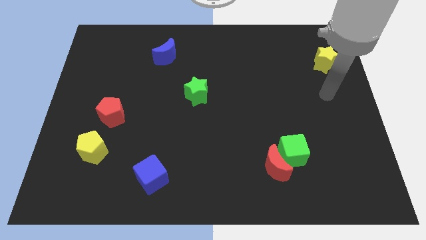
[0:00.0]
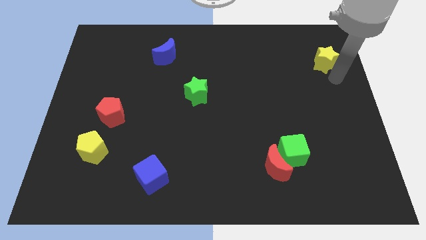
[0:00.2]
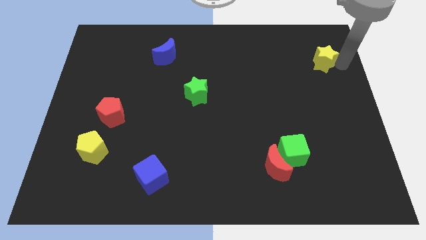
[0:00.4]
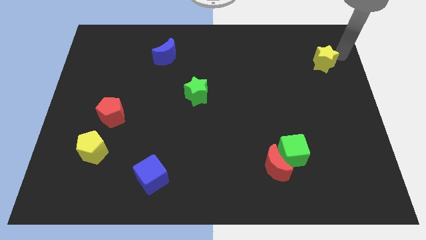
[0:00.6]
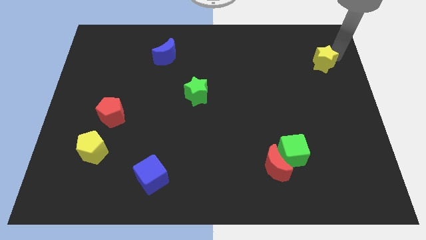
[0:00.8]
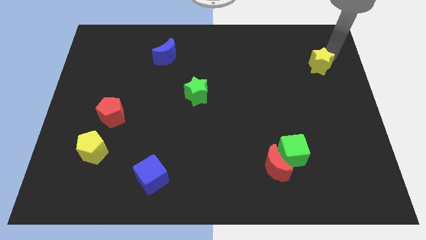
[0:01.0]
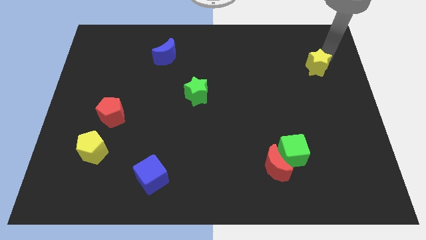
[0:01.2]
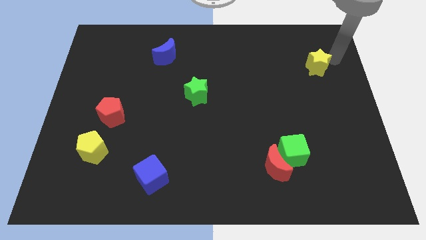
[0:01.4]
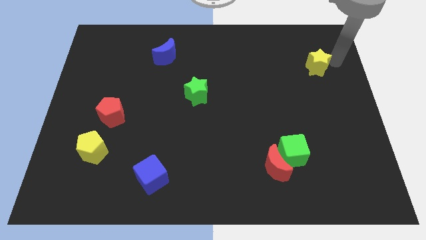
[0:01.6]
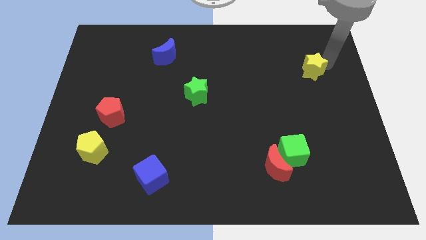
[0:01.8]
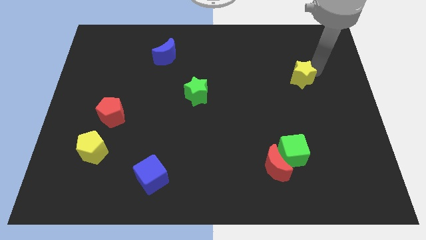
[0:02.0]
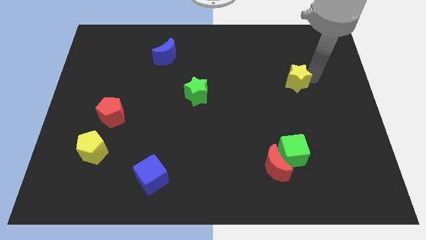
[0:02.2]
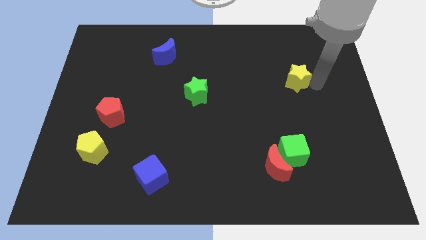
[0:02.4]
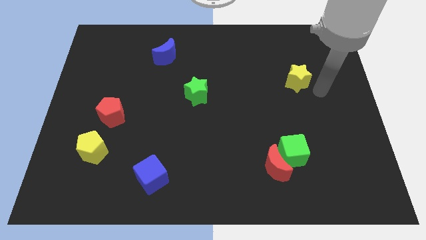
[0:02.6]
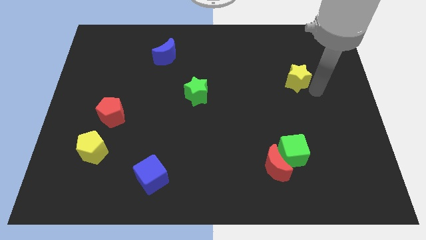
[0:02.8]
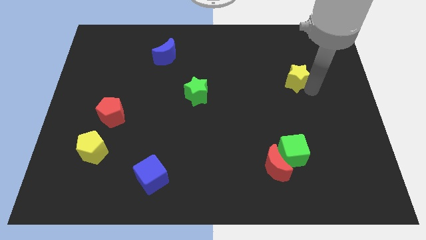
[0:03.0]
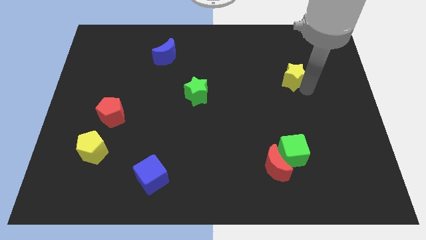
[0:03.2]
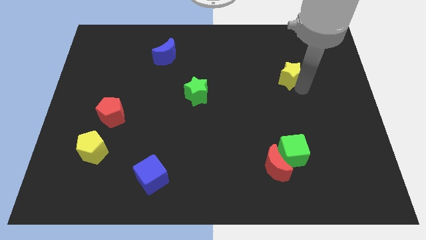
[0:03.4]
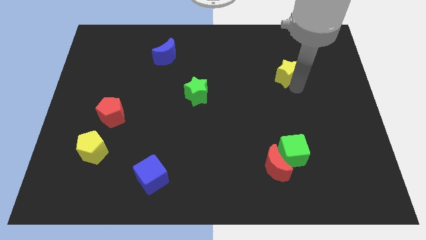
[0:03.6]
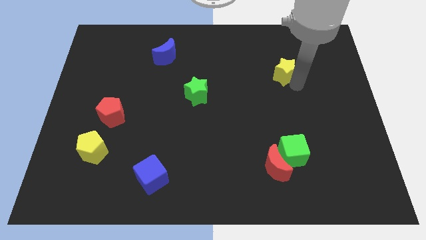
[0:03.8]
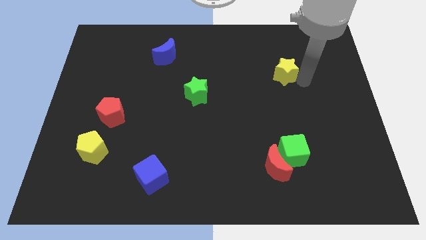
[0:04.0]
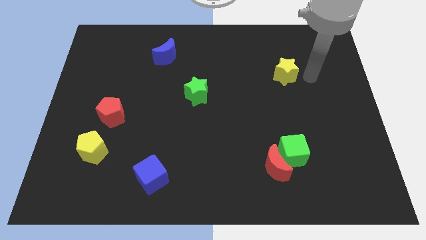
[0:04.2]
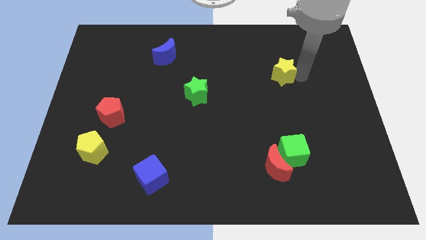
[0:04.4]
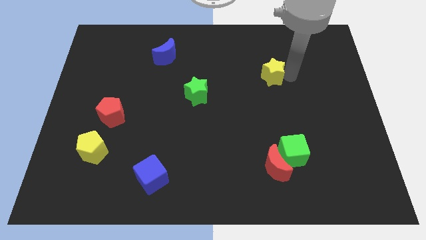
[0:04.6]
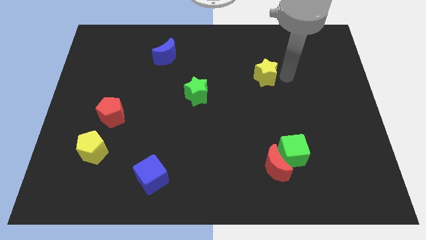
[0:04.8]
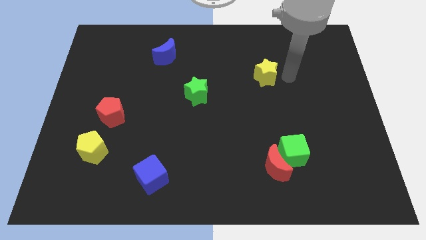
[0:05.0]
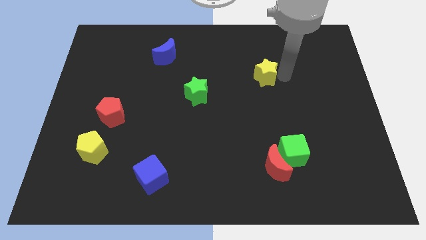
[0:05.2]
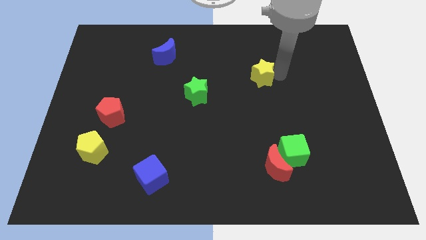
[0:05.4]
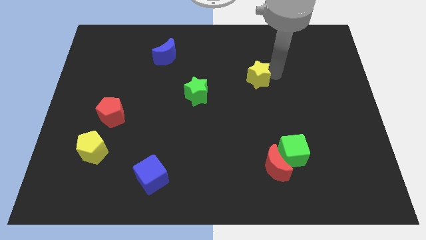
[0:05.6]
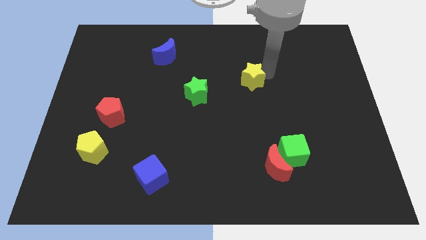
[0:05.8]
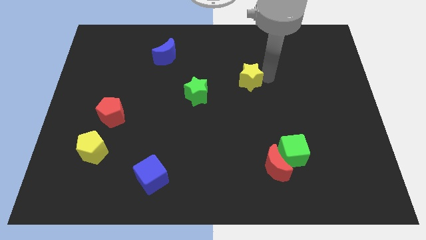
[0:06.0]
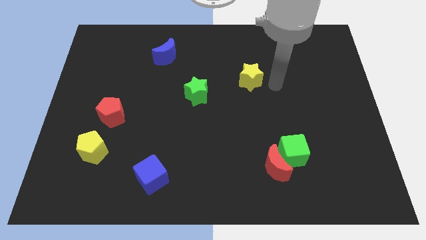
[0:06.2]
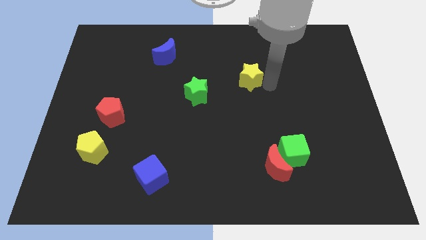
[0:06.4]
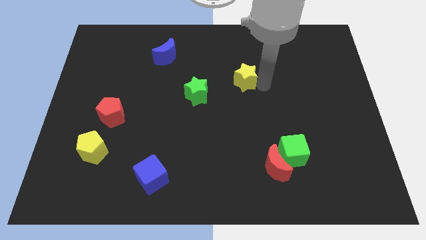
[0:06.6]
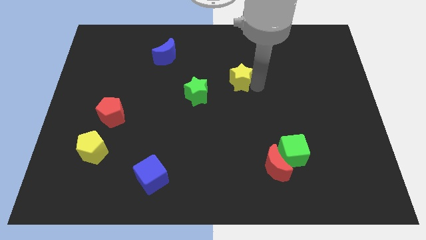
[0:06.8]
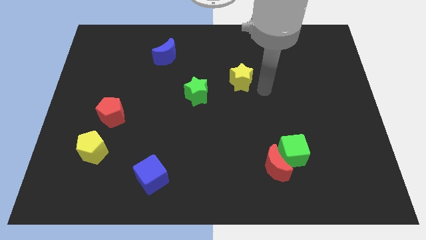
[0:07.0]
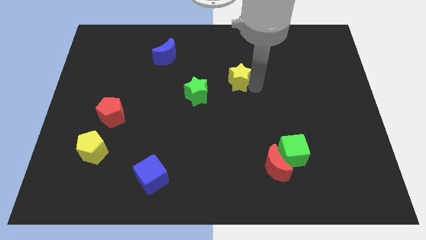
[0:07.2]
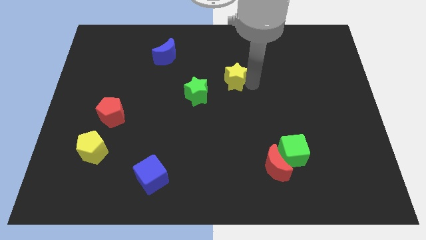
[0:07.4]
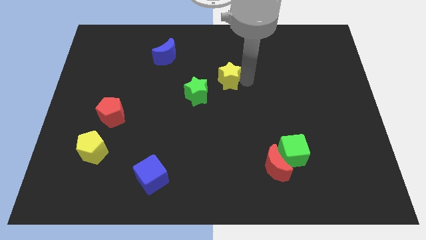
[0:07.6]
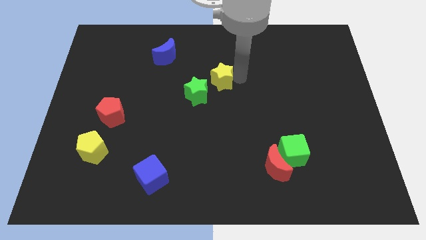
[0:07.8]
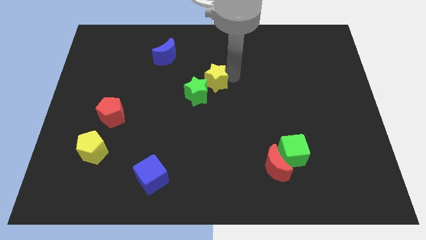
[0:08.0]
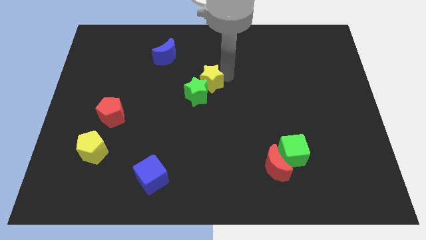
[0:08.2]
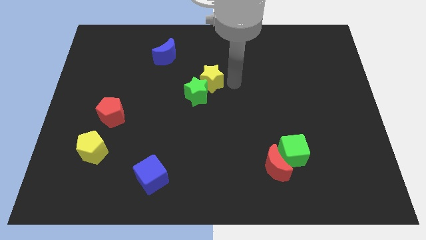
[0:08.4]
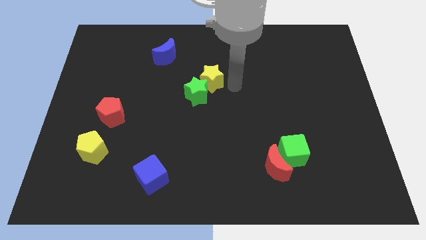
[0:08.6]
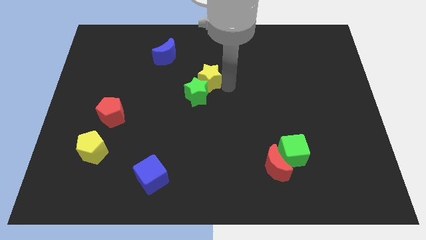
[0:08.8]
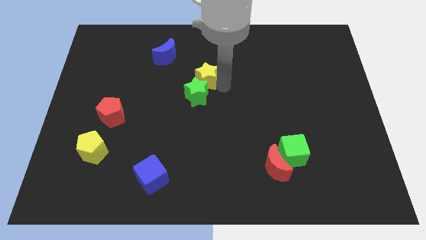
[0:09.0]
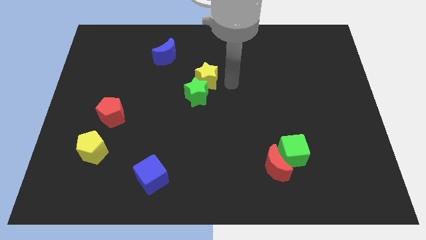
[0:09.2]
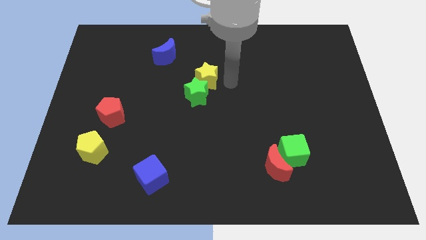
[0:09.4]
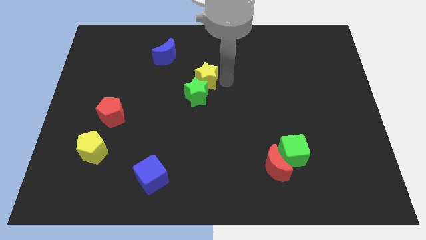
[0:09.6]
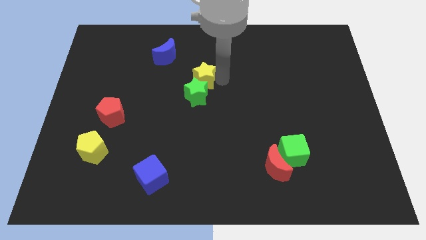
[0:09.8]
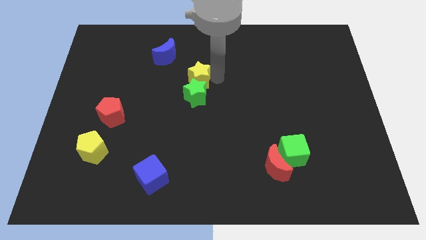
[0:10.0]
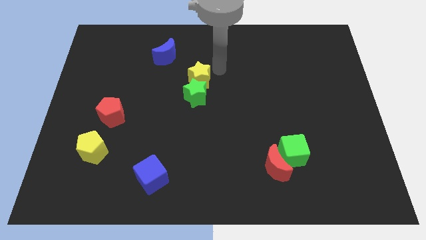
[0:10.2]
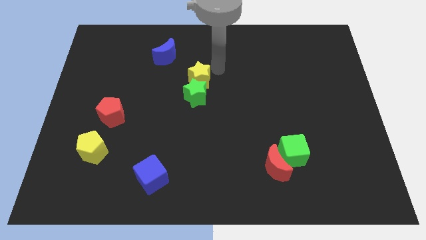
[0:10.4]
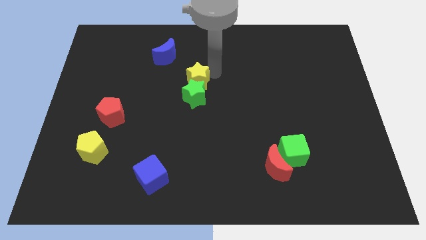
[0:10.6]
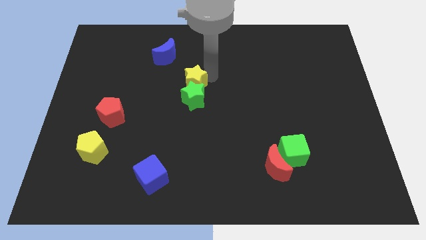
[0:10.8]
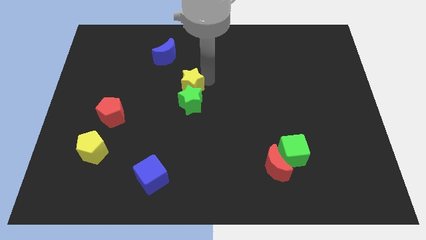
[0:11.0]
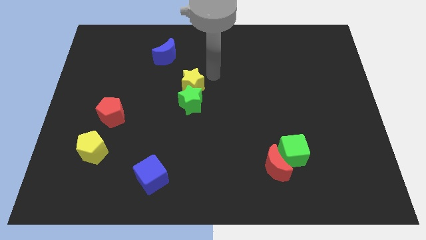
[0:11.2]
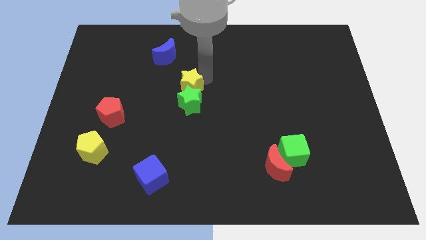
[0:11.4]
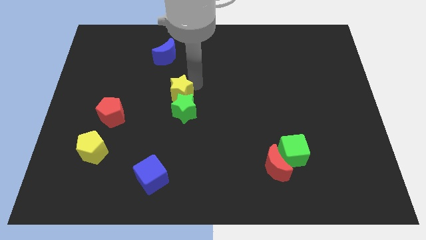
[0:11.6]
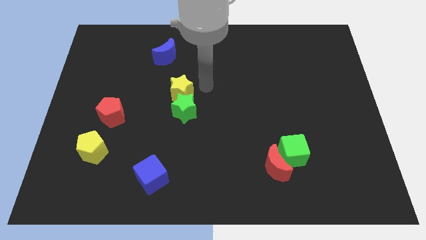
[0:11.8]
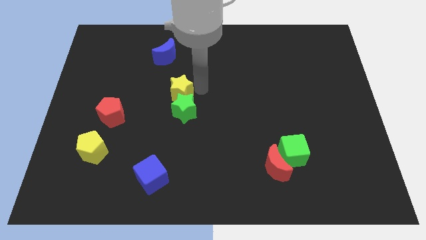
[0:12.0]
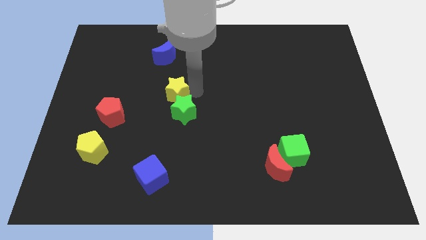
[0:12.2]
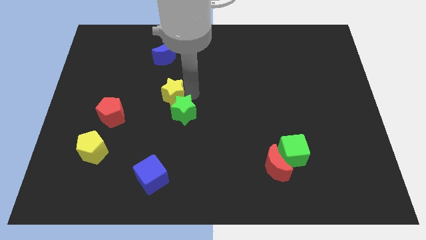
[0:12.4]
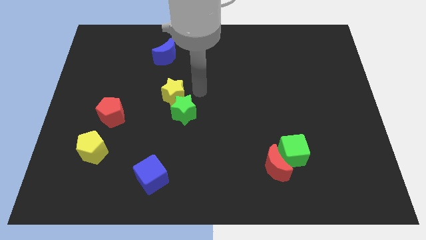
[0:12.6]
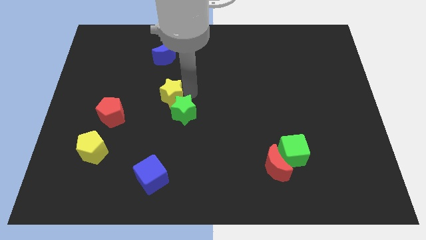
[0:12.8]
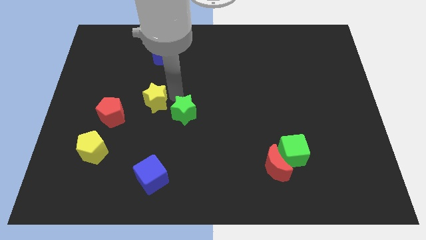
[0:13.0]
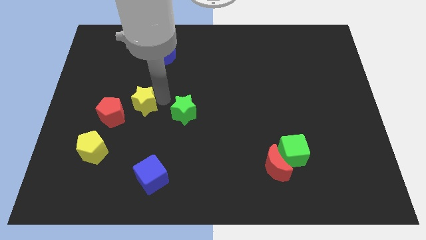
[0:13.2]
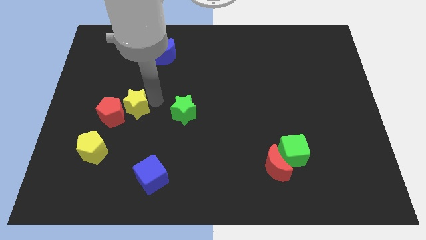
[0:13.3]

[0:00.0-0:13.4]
move the yellow star towards the red pentagon
